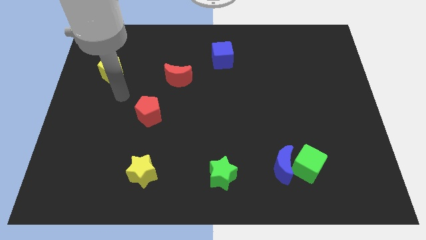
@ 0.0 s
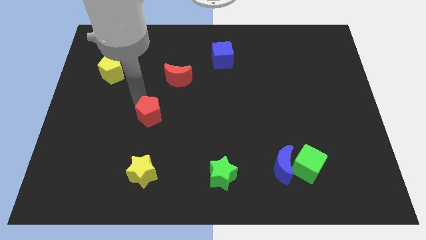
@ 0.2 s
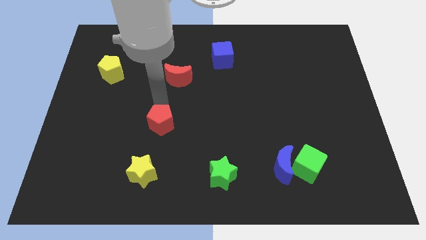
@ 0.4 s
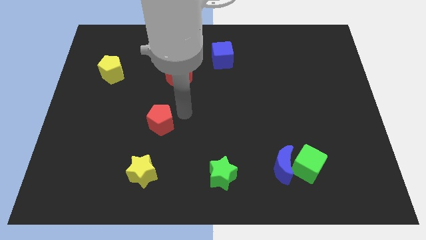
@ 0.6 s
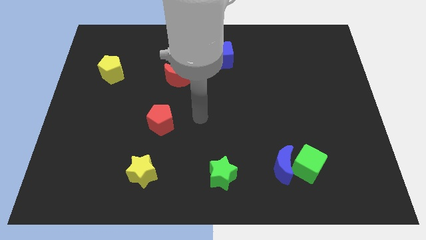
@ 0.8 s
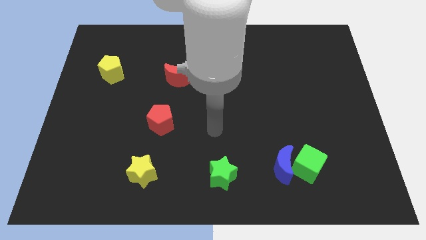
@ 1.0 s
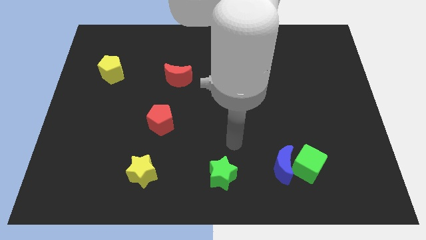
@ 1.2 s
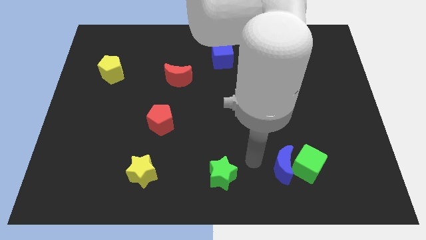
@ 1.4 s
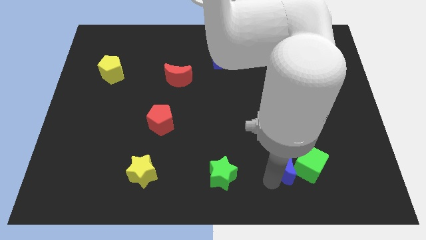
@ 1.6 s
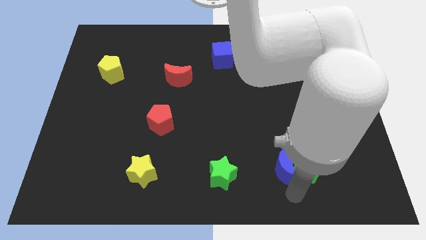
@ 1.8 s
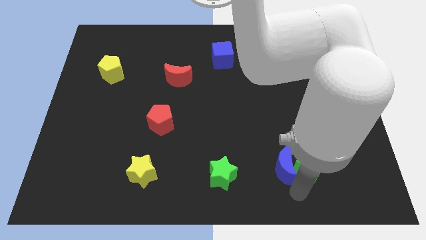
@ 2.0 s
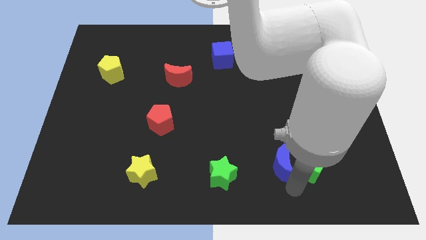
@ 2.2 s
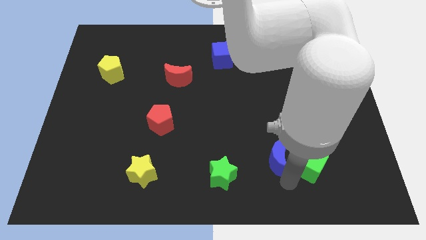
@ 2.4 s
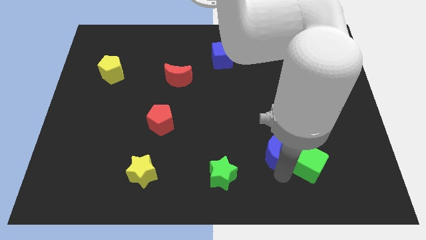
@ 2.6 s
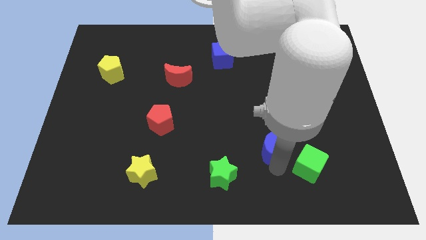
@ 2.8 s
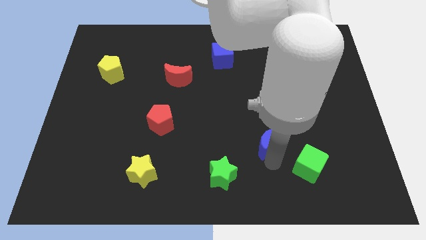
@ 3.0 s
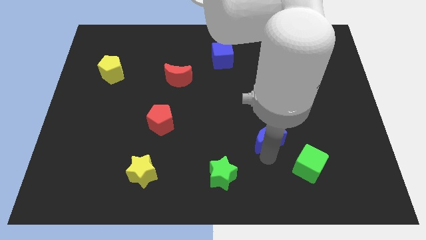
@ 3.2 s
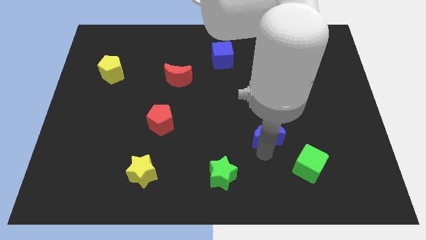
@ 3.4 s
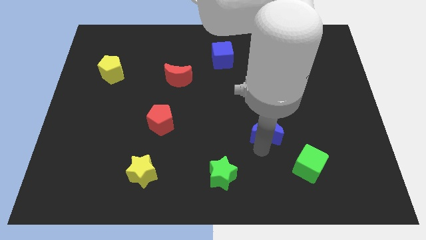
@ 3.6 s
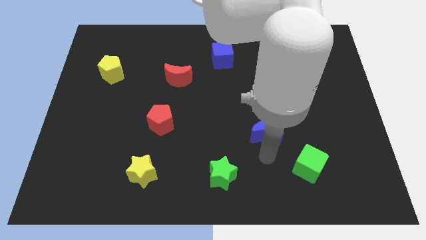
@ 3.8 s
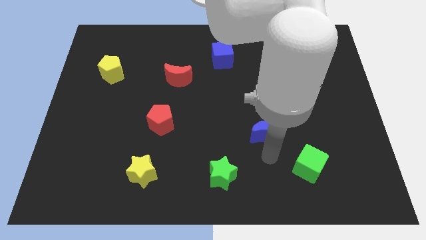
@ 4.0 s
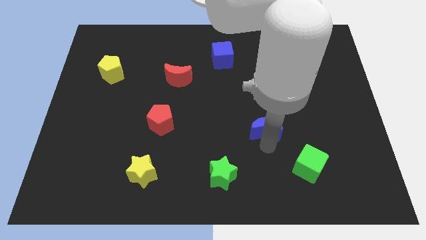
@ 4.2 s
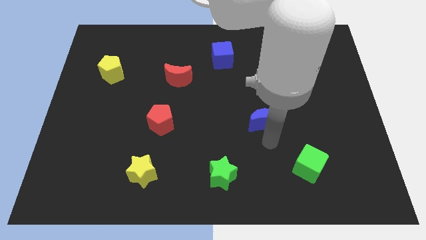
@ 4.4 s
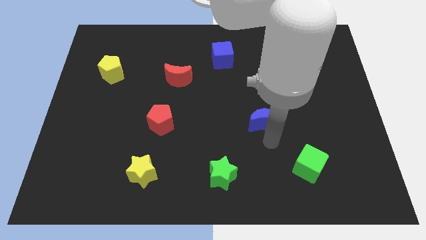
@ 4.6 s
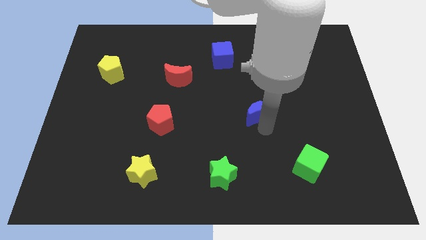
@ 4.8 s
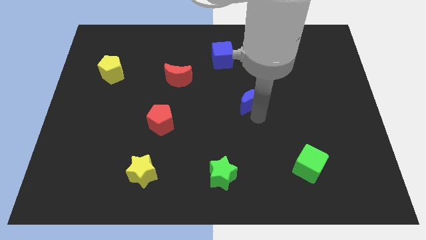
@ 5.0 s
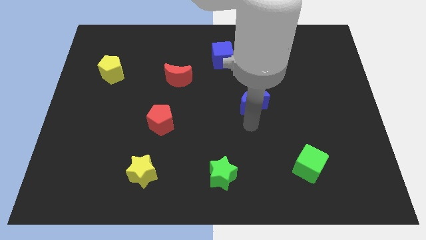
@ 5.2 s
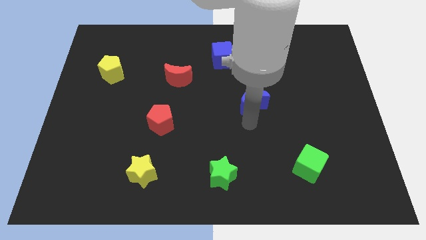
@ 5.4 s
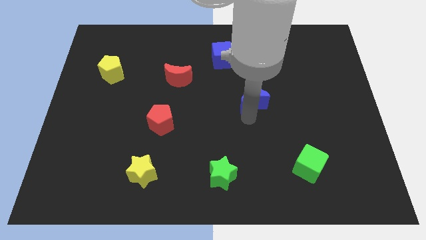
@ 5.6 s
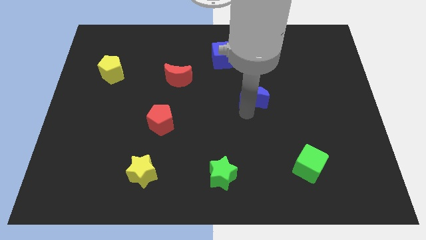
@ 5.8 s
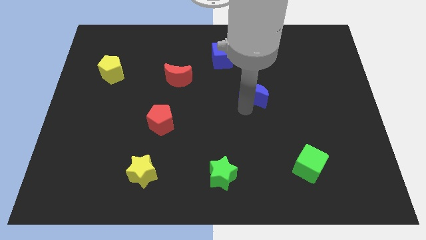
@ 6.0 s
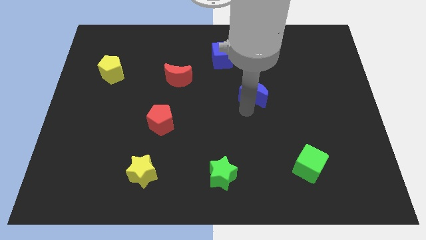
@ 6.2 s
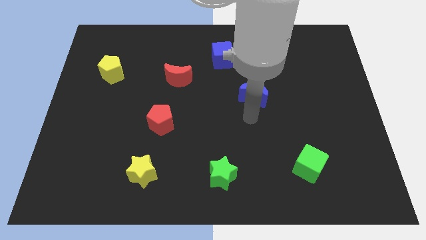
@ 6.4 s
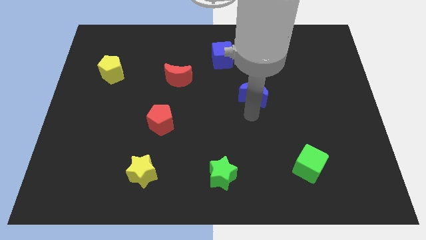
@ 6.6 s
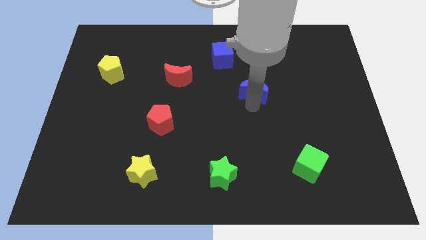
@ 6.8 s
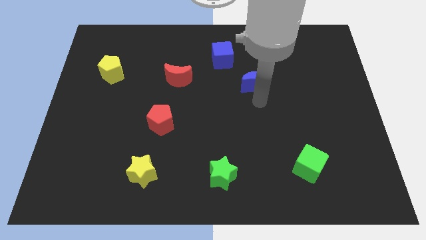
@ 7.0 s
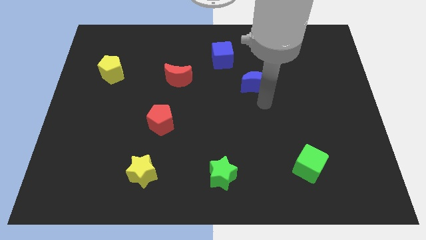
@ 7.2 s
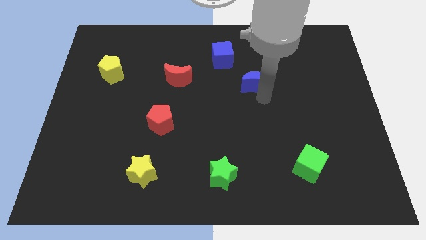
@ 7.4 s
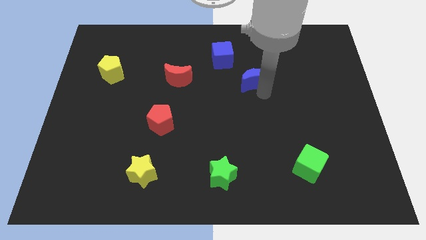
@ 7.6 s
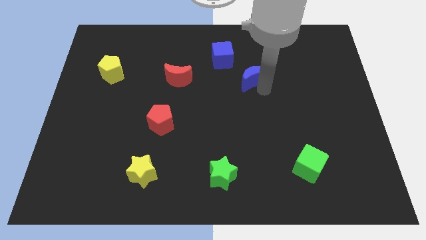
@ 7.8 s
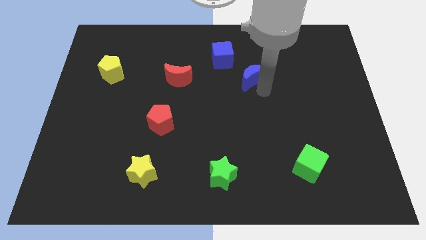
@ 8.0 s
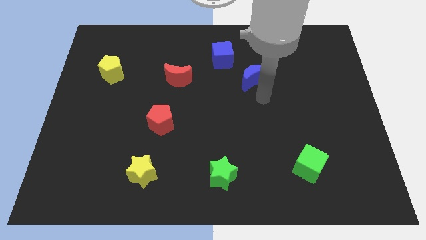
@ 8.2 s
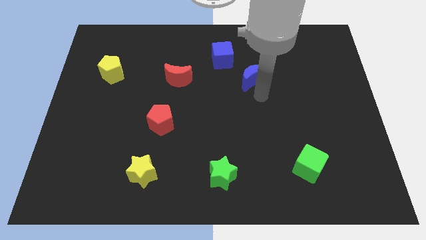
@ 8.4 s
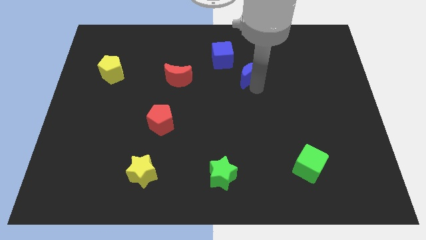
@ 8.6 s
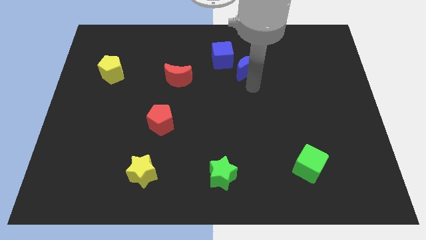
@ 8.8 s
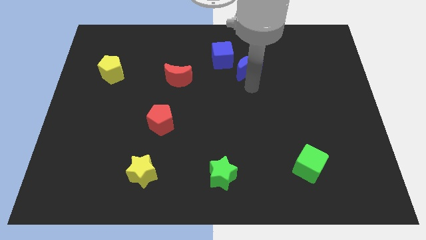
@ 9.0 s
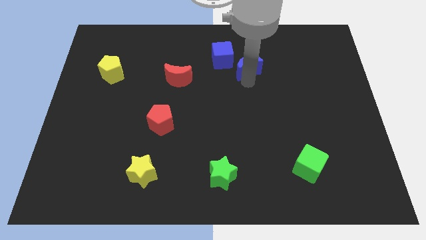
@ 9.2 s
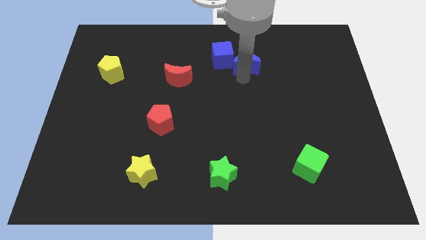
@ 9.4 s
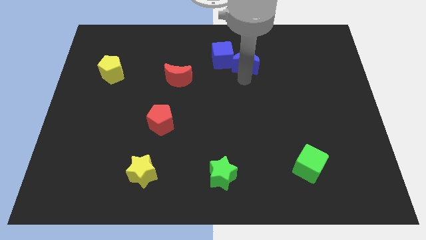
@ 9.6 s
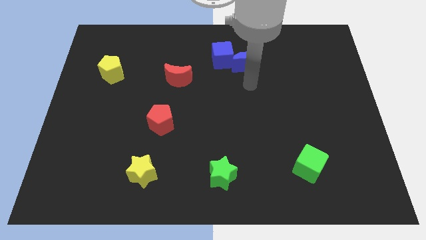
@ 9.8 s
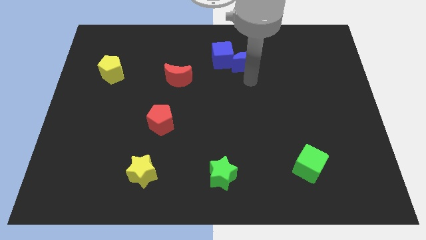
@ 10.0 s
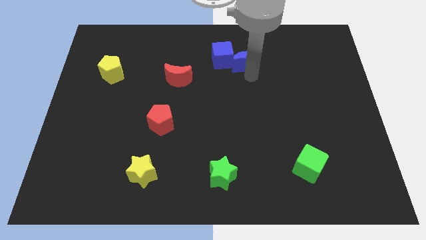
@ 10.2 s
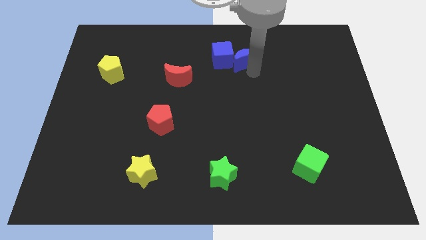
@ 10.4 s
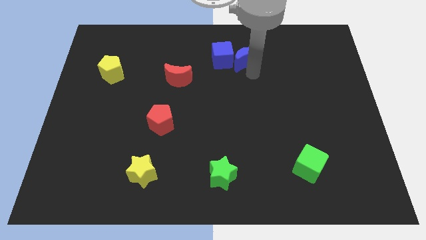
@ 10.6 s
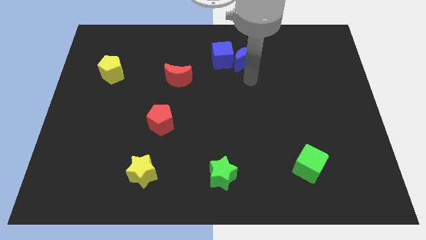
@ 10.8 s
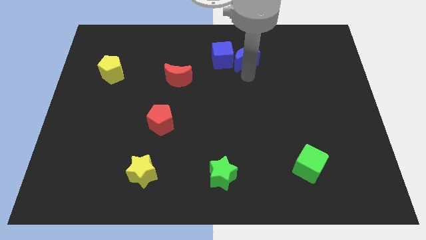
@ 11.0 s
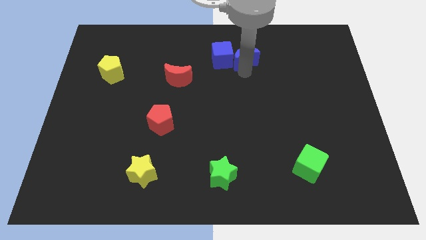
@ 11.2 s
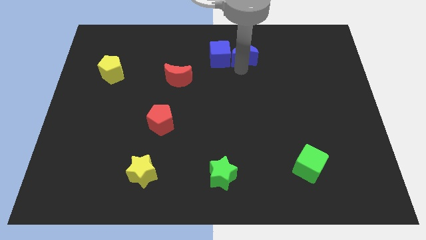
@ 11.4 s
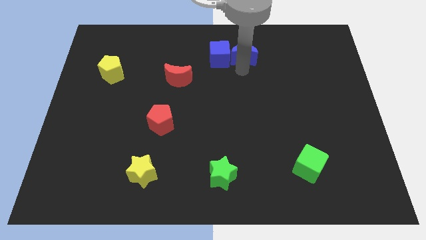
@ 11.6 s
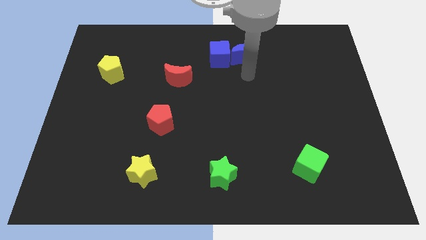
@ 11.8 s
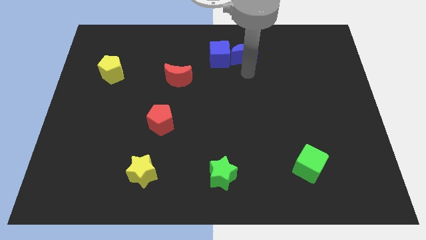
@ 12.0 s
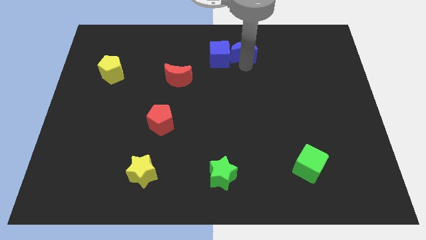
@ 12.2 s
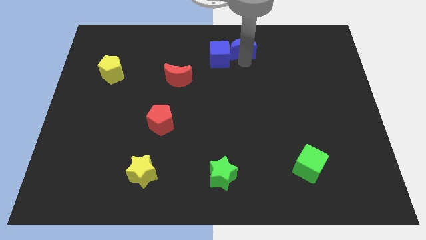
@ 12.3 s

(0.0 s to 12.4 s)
put the blue moon to the top side
